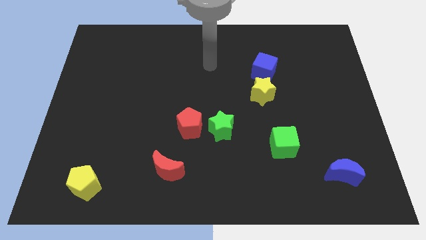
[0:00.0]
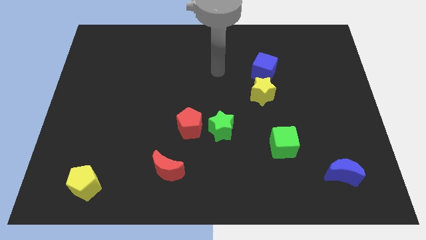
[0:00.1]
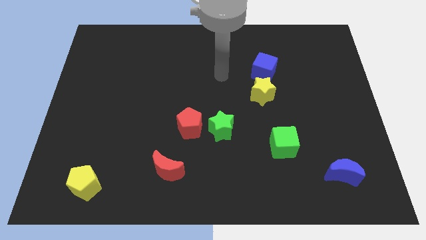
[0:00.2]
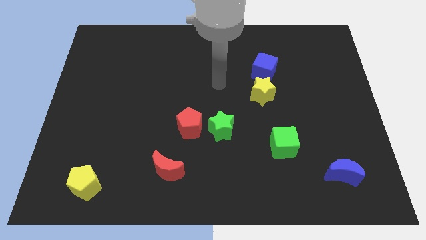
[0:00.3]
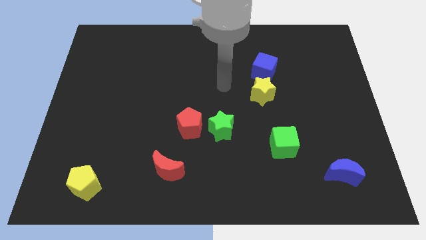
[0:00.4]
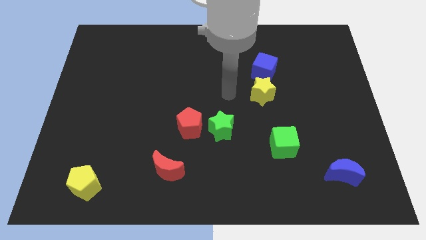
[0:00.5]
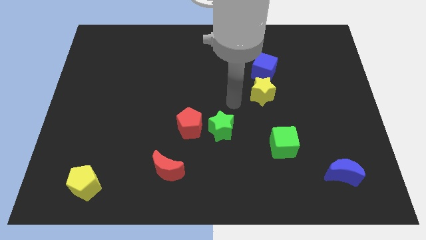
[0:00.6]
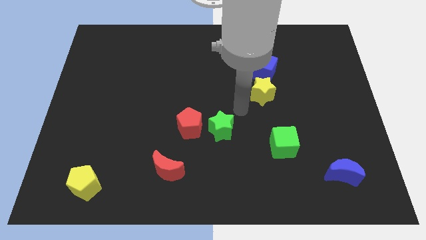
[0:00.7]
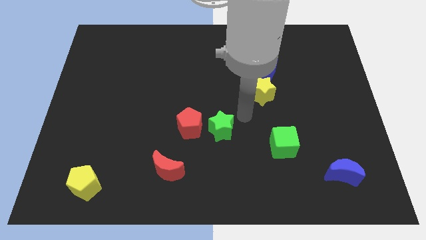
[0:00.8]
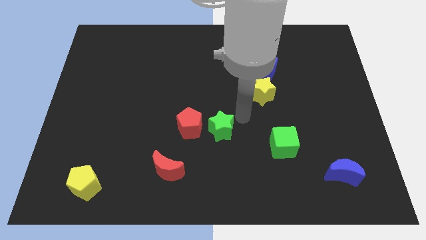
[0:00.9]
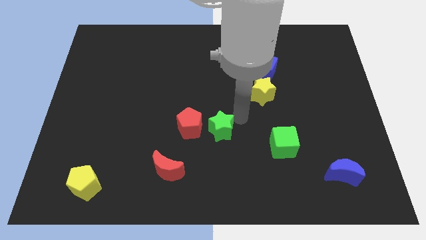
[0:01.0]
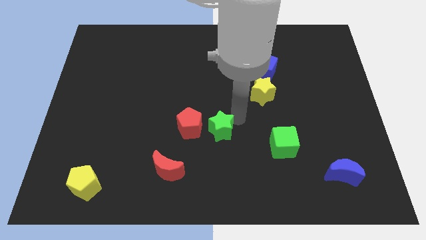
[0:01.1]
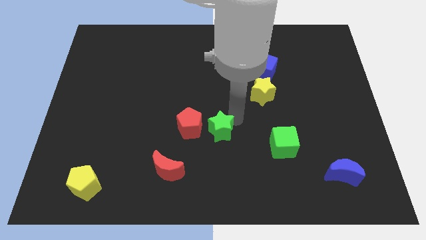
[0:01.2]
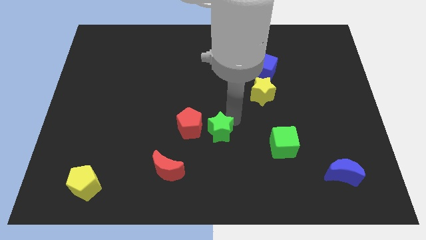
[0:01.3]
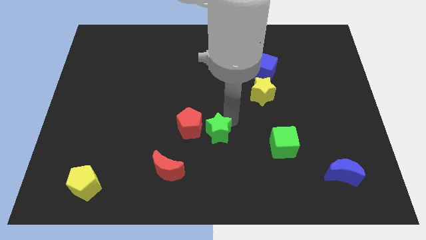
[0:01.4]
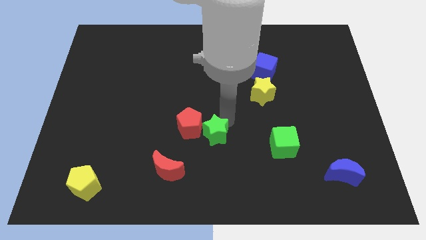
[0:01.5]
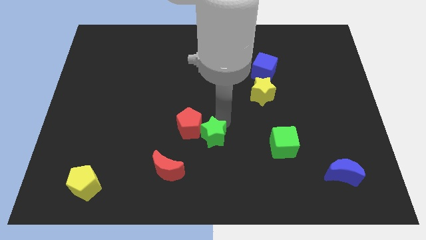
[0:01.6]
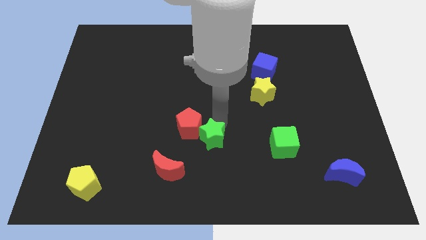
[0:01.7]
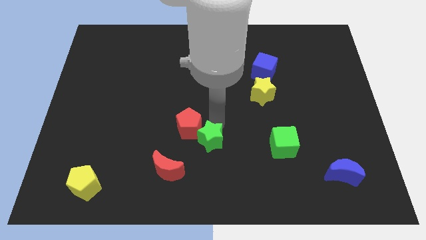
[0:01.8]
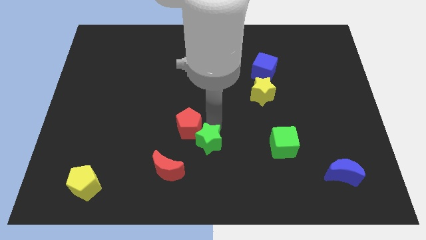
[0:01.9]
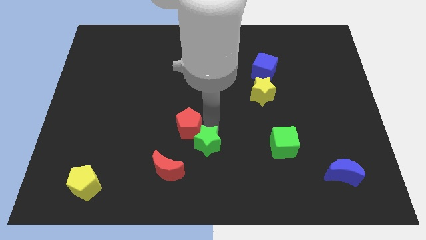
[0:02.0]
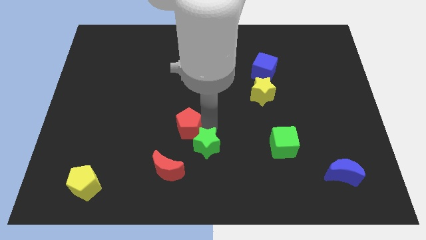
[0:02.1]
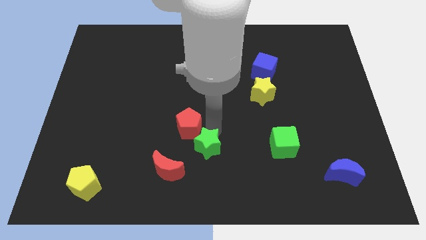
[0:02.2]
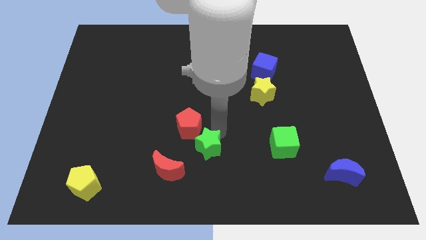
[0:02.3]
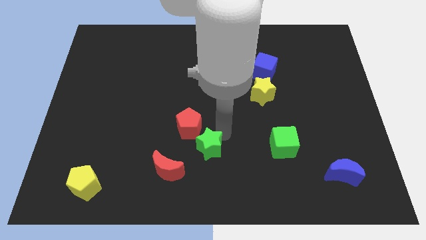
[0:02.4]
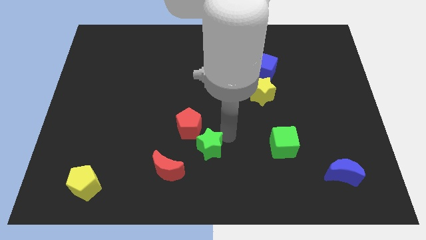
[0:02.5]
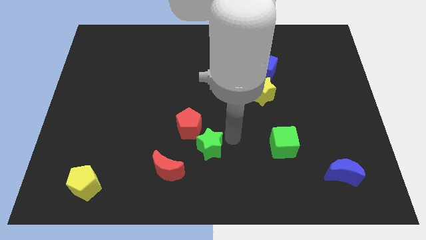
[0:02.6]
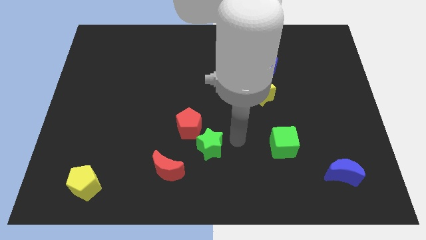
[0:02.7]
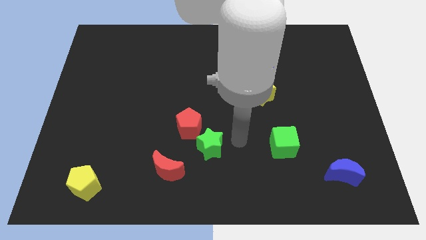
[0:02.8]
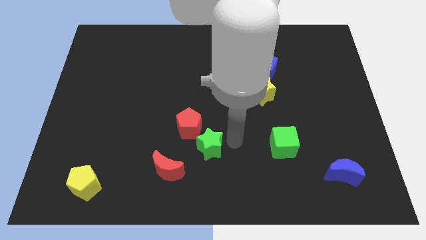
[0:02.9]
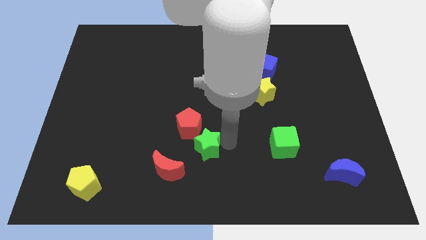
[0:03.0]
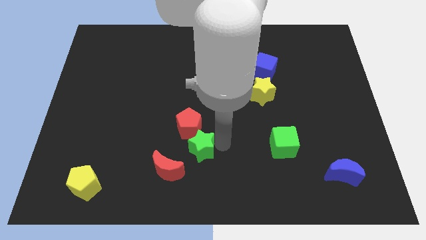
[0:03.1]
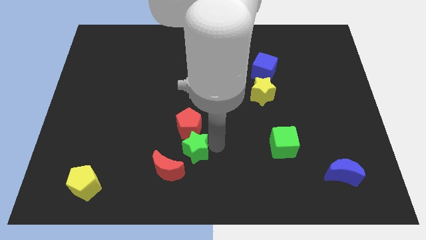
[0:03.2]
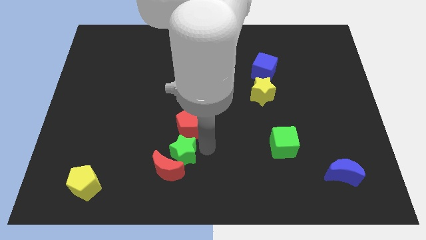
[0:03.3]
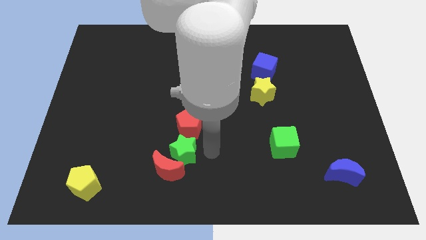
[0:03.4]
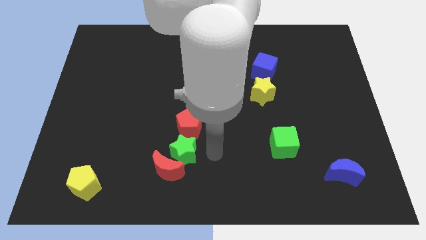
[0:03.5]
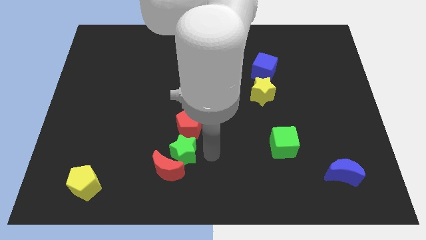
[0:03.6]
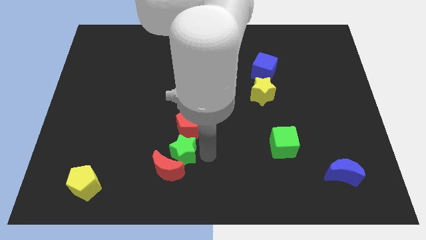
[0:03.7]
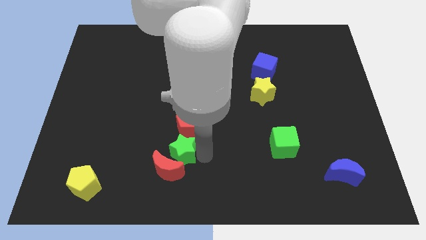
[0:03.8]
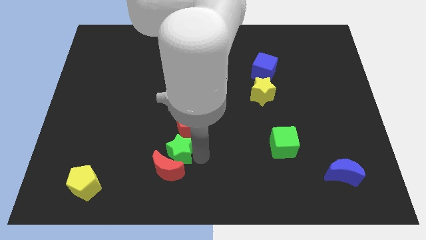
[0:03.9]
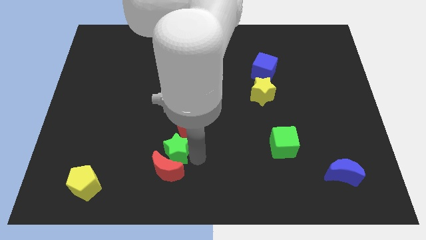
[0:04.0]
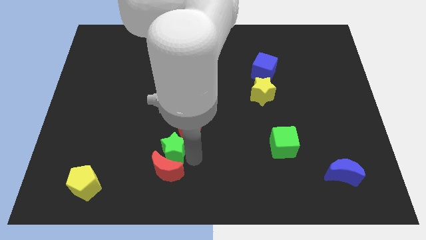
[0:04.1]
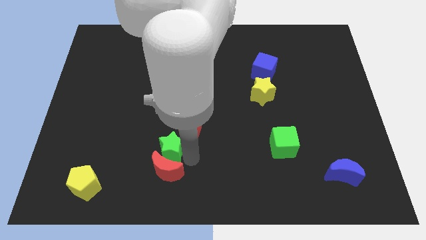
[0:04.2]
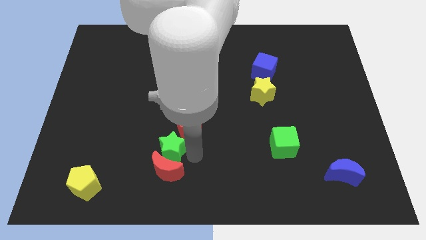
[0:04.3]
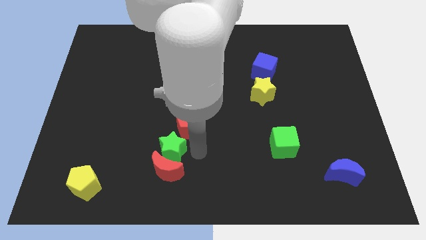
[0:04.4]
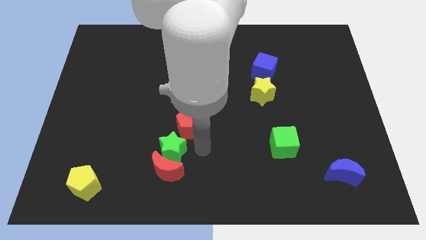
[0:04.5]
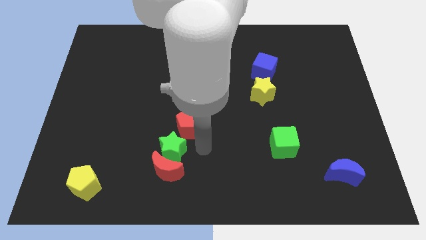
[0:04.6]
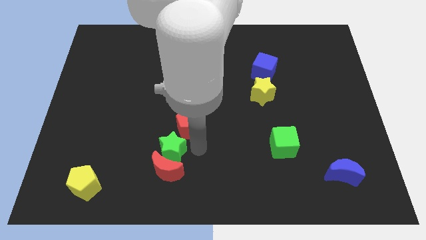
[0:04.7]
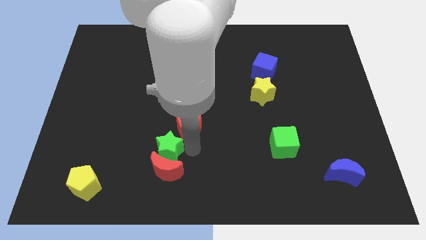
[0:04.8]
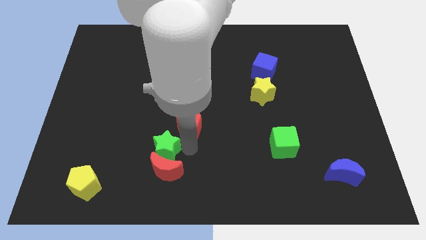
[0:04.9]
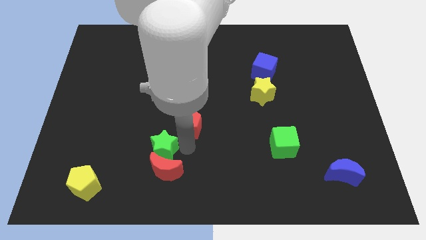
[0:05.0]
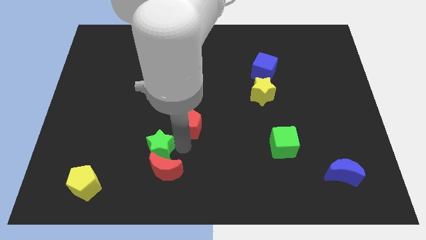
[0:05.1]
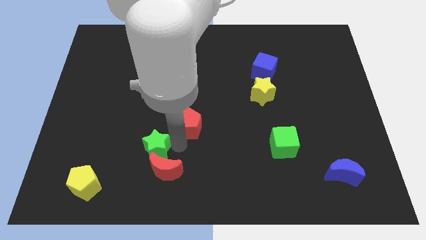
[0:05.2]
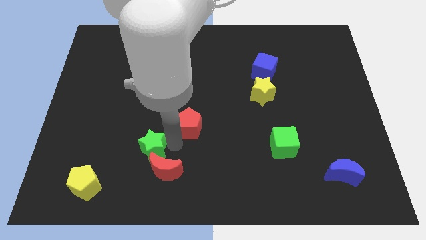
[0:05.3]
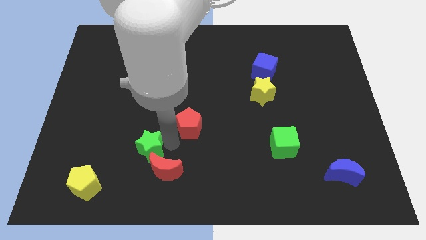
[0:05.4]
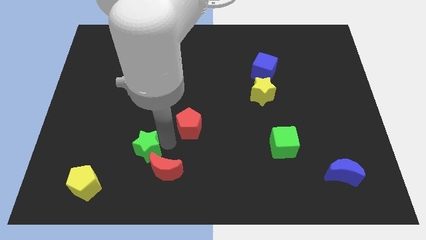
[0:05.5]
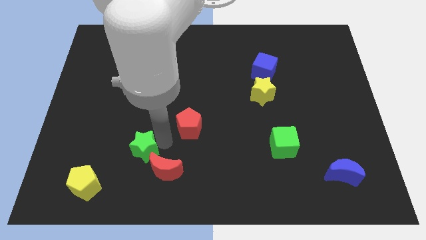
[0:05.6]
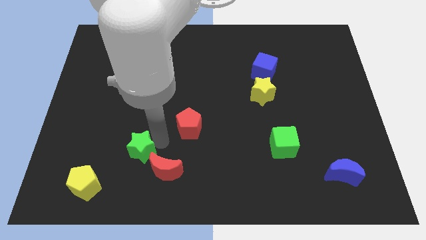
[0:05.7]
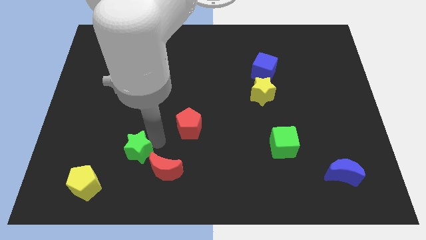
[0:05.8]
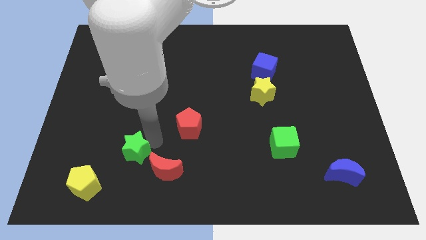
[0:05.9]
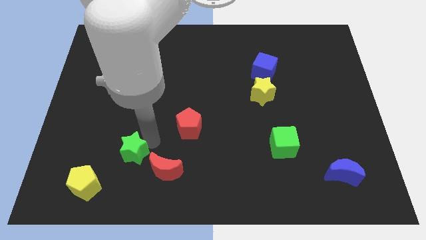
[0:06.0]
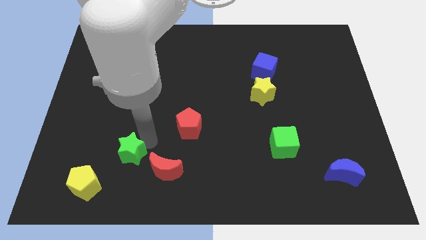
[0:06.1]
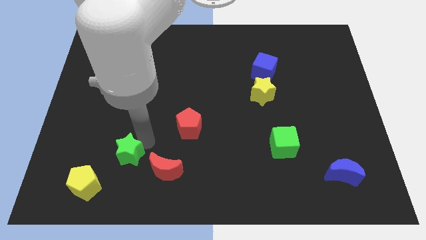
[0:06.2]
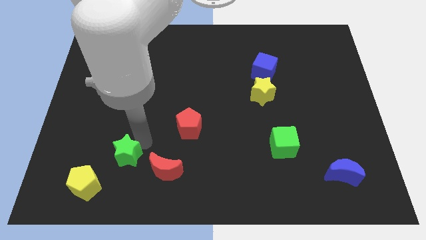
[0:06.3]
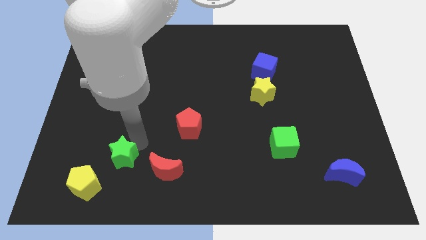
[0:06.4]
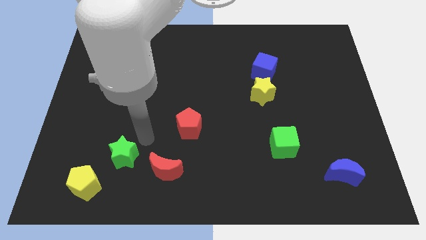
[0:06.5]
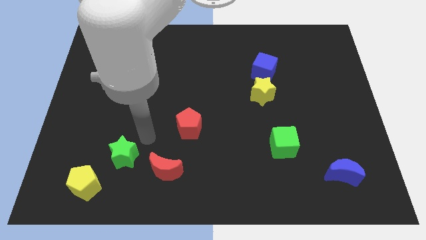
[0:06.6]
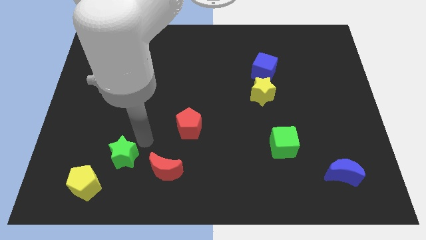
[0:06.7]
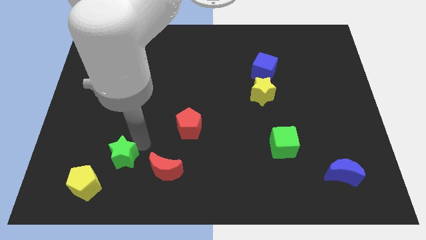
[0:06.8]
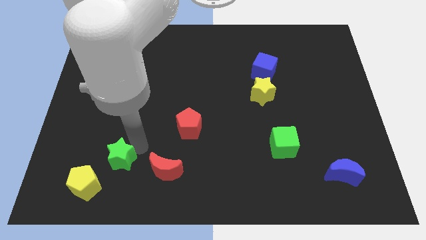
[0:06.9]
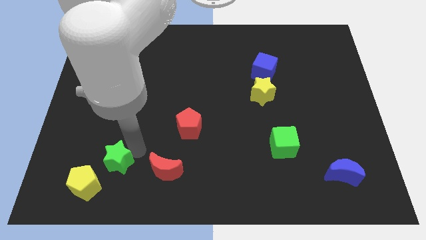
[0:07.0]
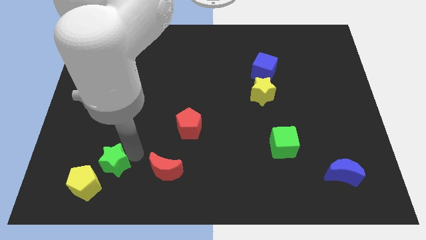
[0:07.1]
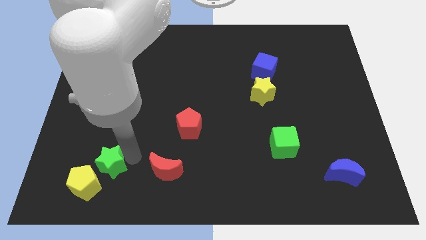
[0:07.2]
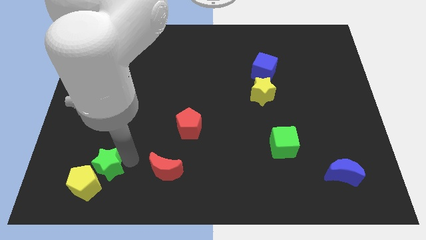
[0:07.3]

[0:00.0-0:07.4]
push the green star close to the yellow pentagon
